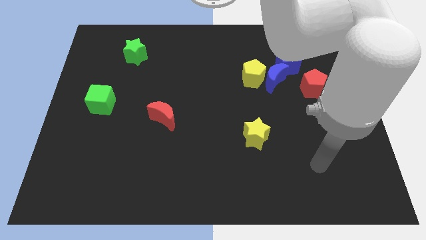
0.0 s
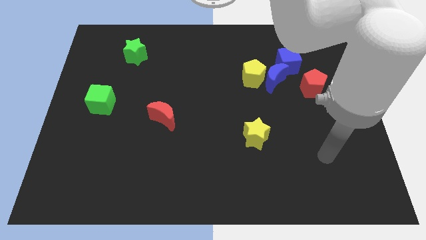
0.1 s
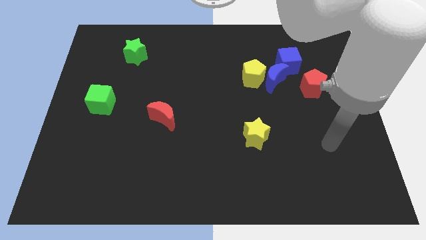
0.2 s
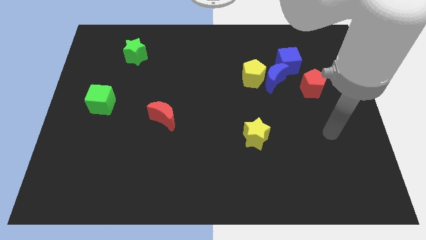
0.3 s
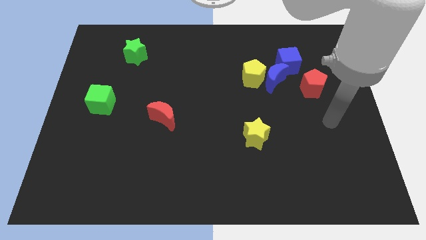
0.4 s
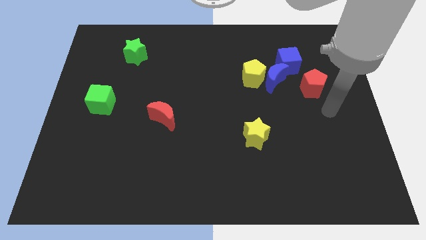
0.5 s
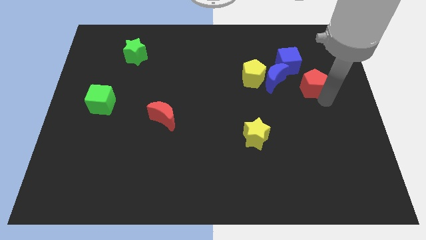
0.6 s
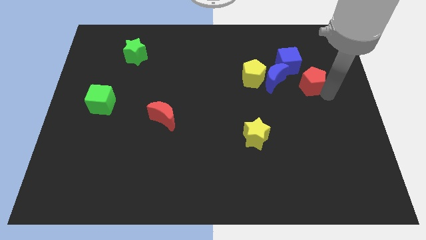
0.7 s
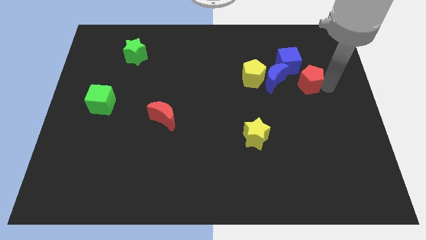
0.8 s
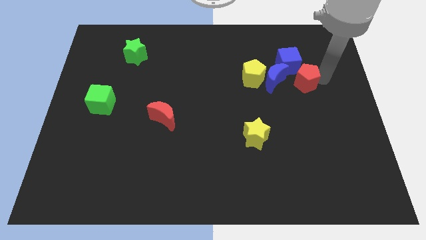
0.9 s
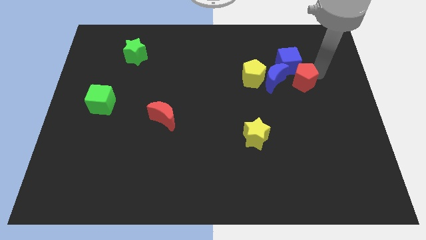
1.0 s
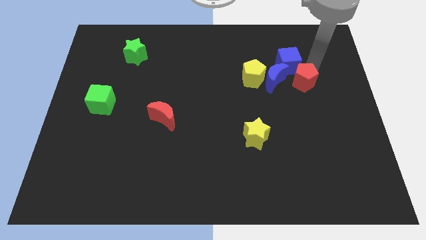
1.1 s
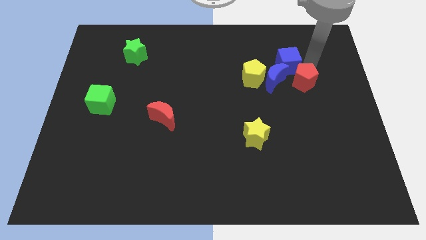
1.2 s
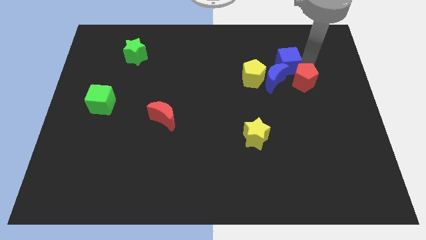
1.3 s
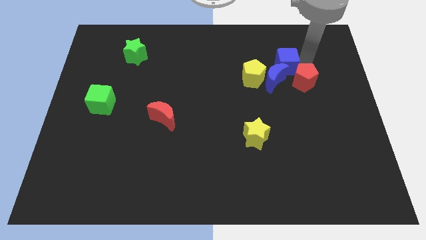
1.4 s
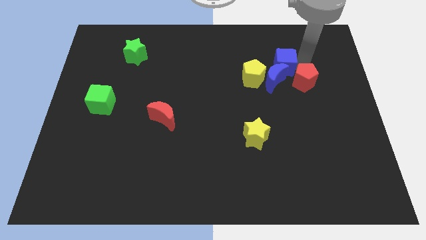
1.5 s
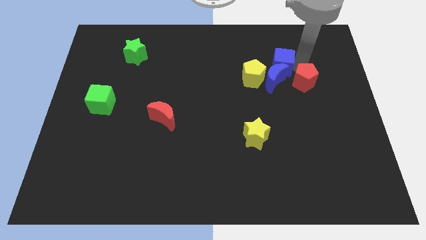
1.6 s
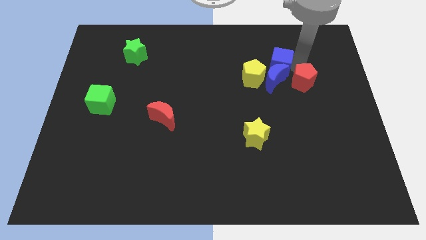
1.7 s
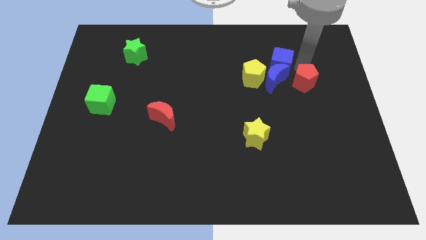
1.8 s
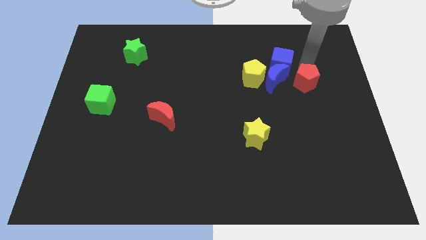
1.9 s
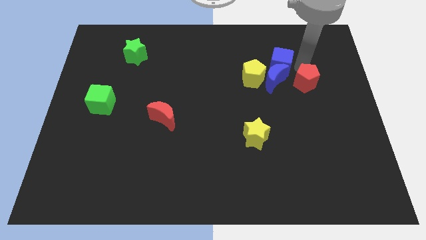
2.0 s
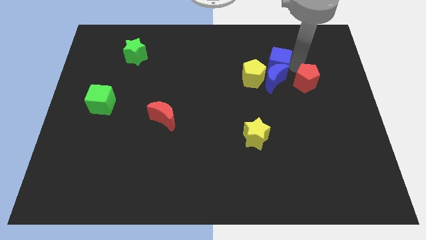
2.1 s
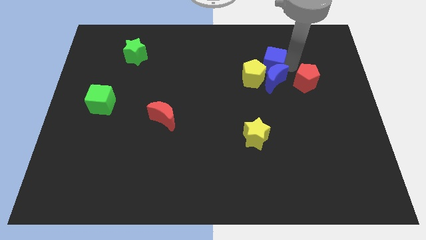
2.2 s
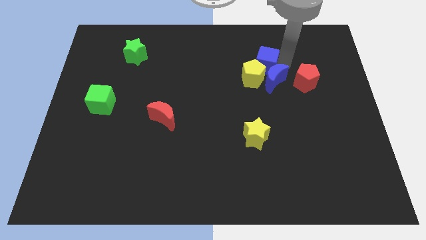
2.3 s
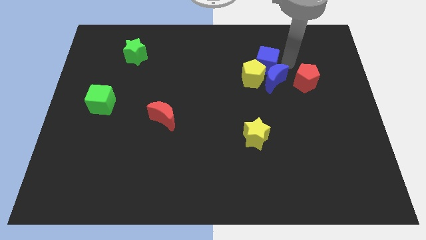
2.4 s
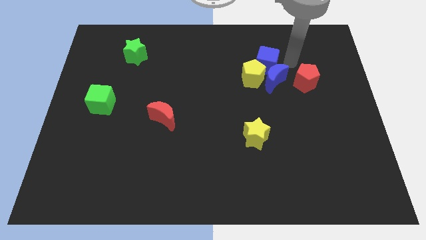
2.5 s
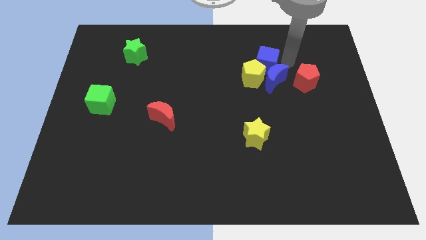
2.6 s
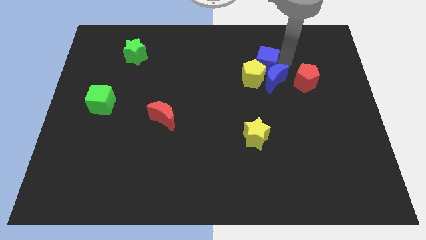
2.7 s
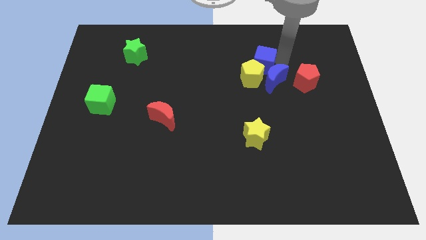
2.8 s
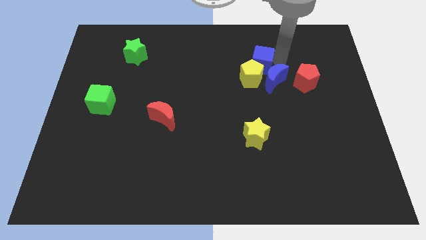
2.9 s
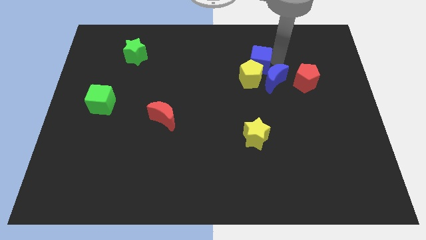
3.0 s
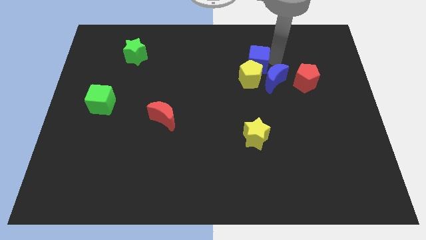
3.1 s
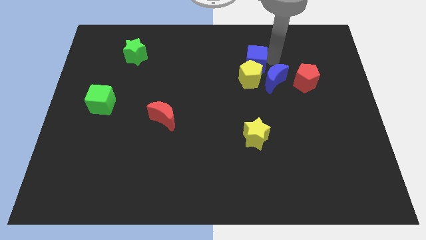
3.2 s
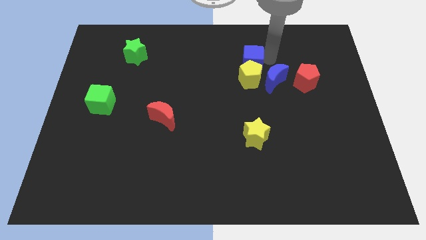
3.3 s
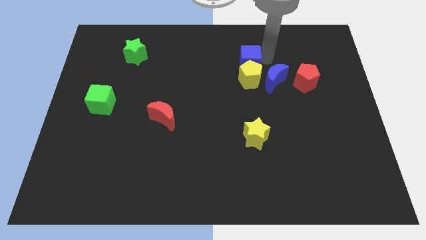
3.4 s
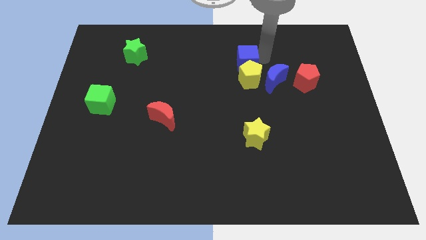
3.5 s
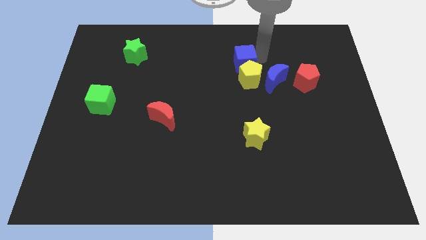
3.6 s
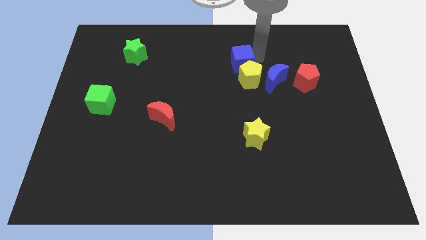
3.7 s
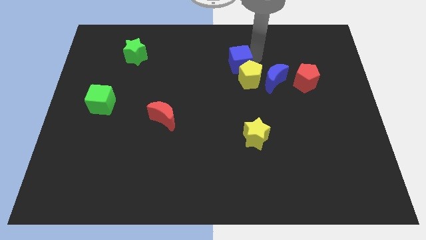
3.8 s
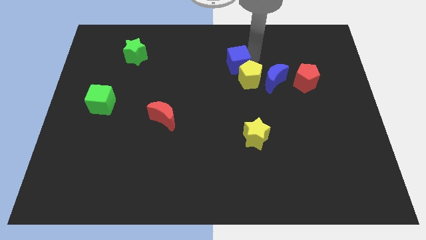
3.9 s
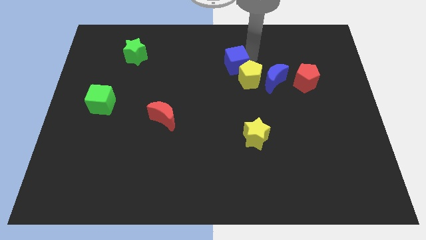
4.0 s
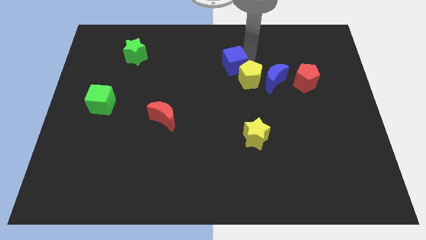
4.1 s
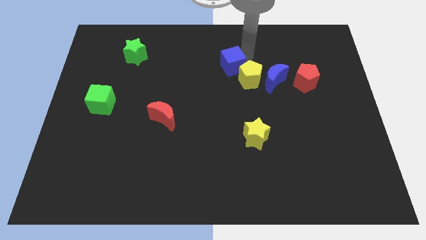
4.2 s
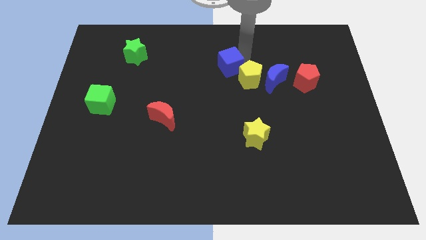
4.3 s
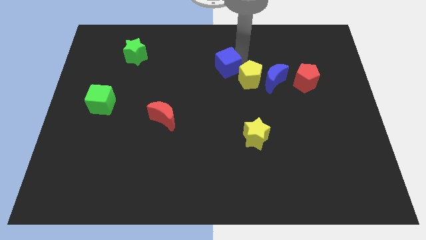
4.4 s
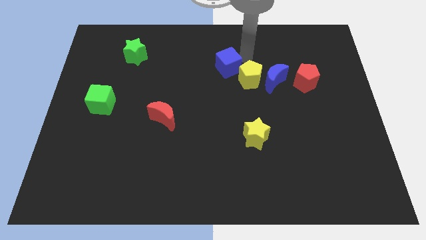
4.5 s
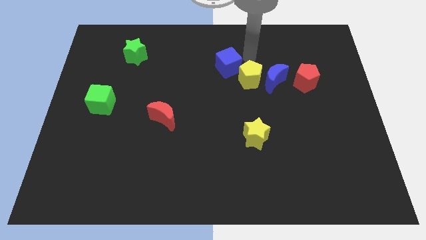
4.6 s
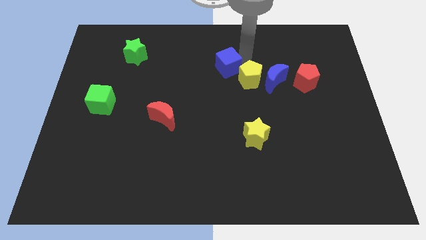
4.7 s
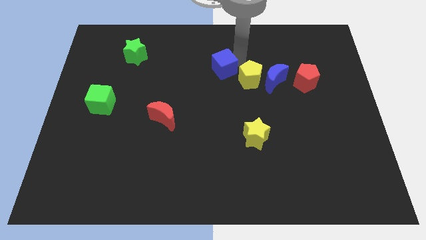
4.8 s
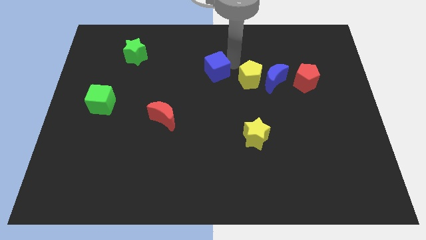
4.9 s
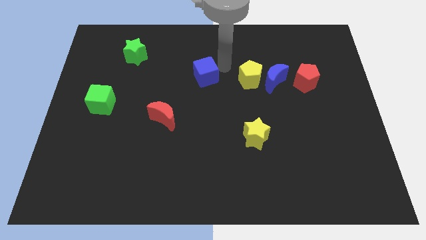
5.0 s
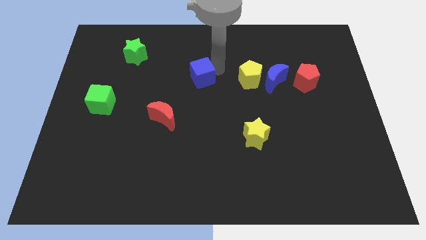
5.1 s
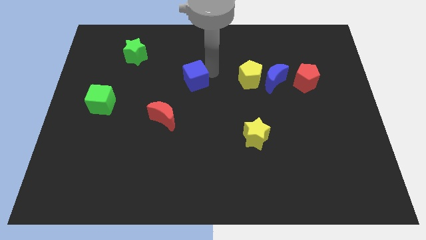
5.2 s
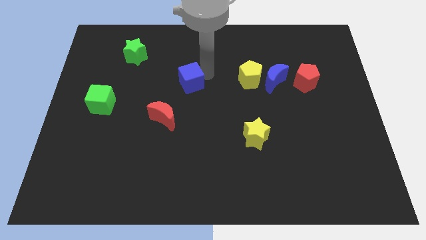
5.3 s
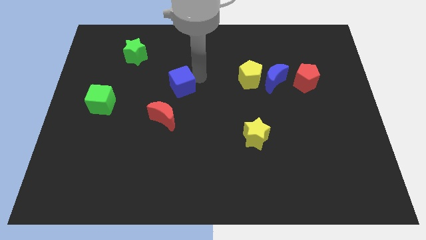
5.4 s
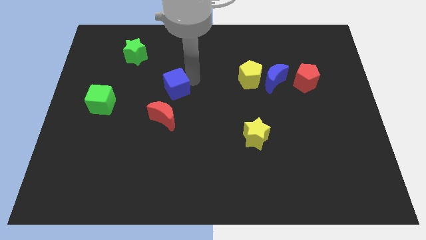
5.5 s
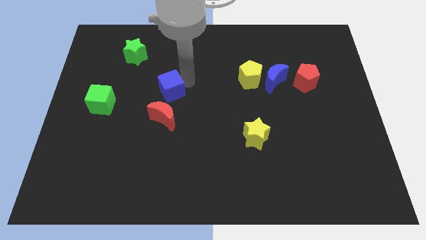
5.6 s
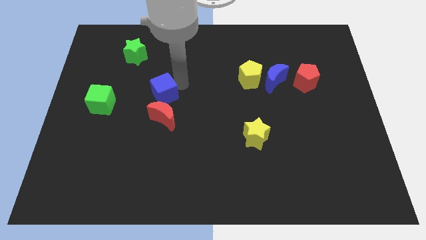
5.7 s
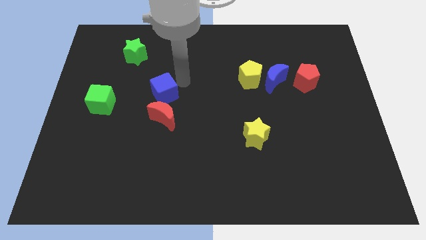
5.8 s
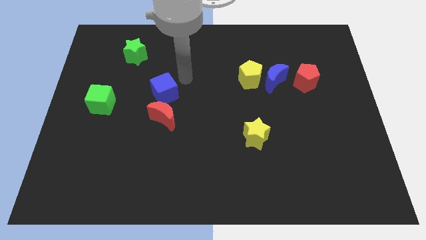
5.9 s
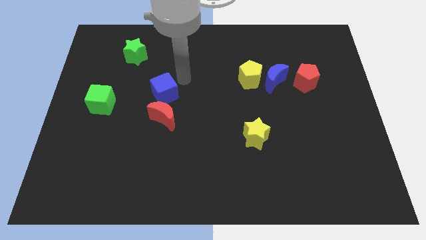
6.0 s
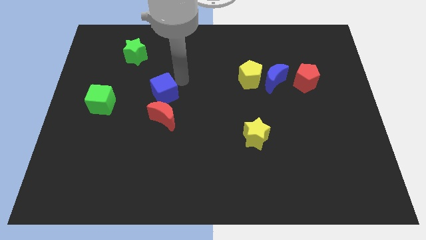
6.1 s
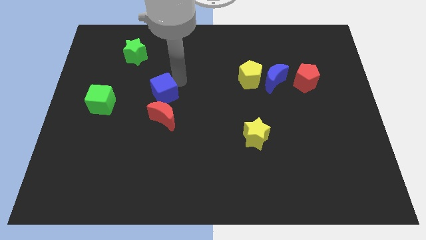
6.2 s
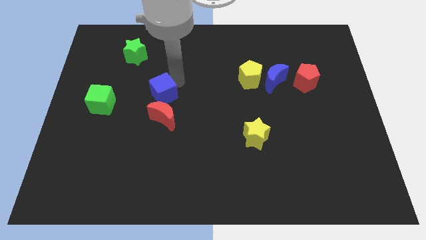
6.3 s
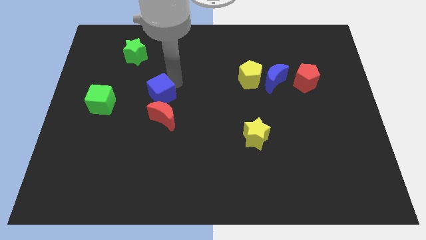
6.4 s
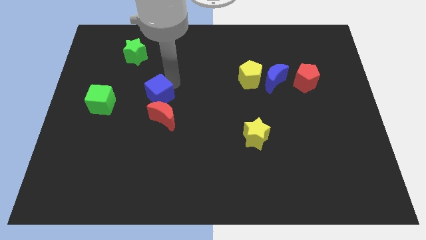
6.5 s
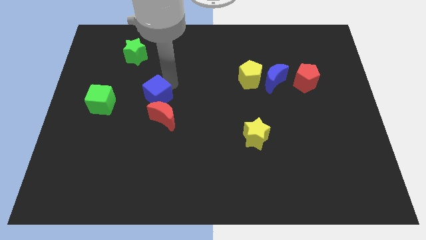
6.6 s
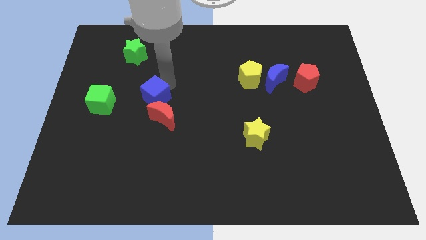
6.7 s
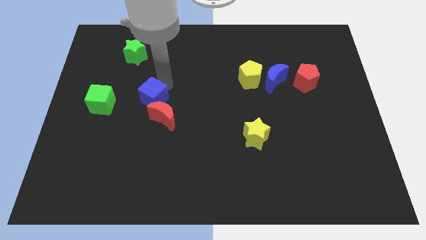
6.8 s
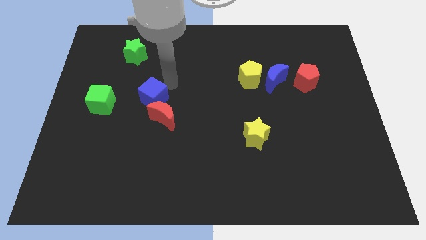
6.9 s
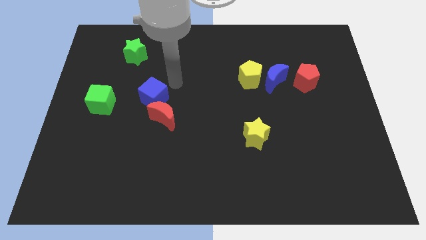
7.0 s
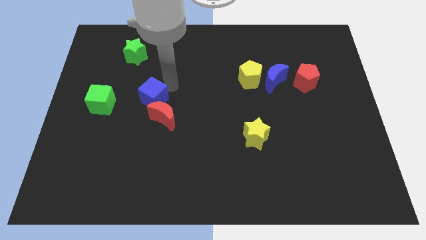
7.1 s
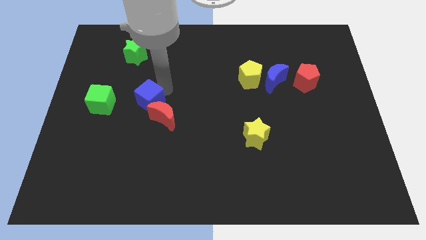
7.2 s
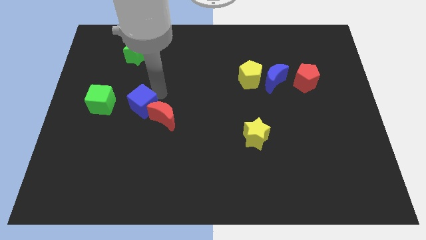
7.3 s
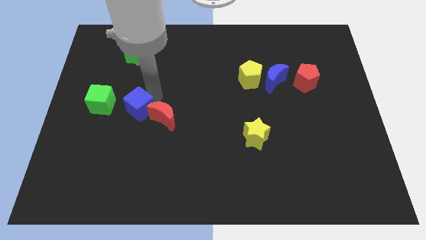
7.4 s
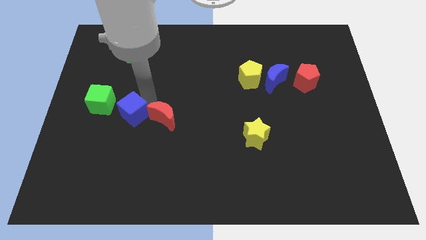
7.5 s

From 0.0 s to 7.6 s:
move the blue cube to the bottom right of the green cube
